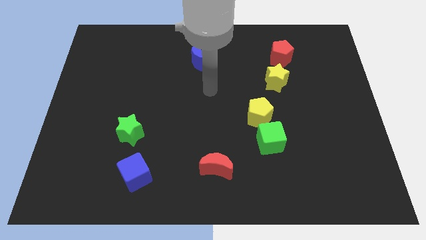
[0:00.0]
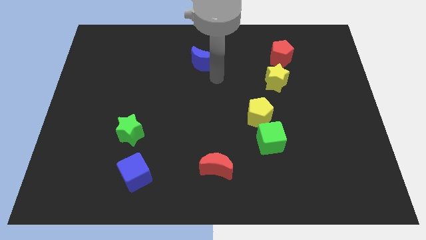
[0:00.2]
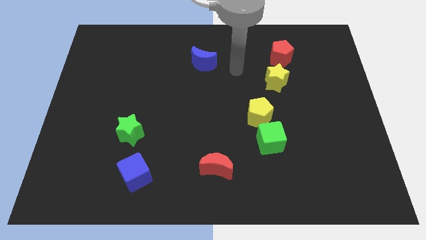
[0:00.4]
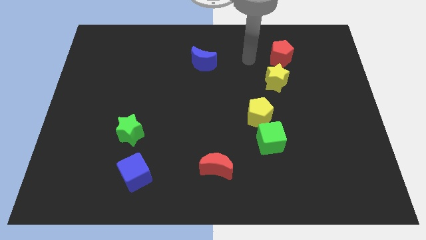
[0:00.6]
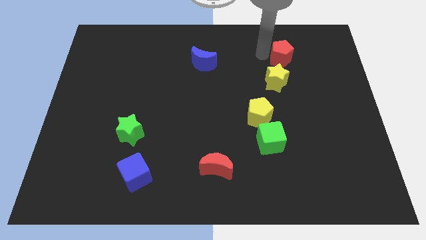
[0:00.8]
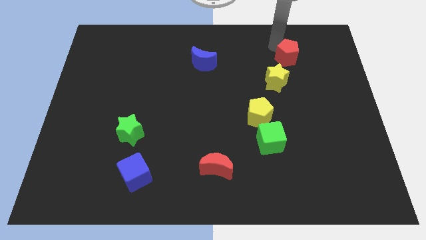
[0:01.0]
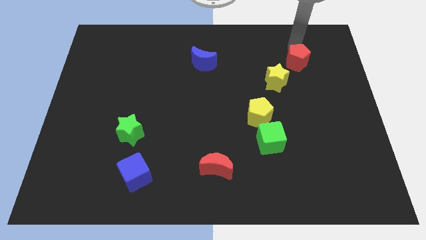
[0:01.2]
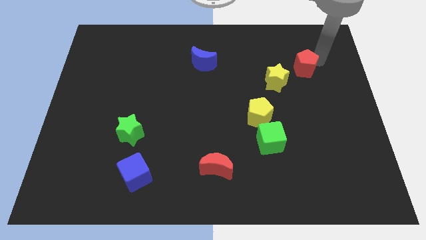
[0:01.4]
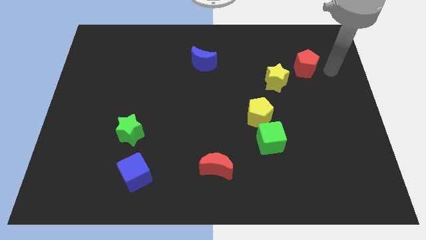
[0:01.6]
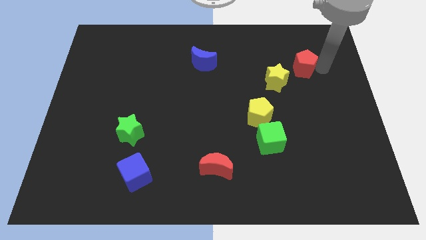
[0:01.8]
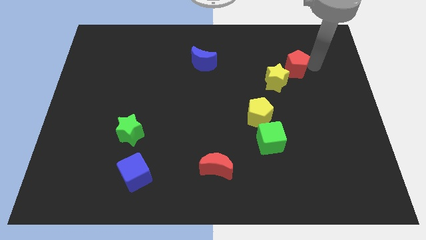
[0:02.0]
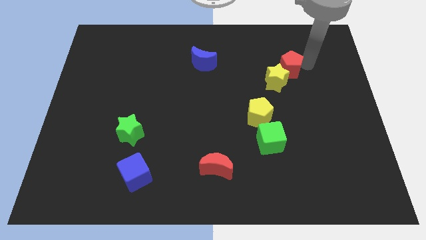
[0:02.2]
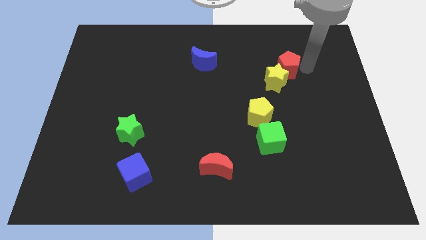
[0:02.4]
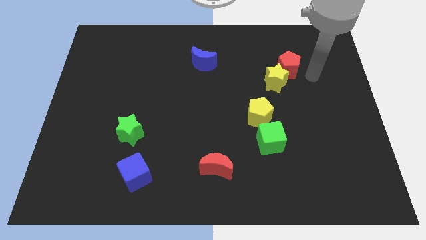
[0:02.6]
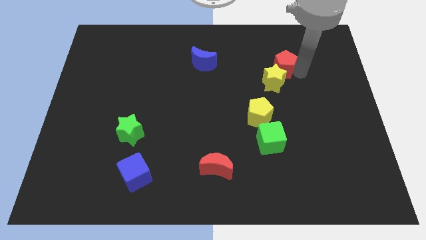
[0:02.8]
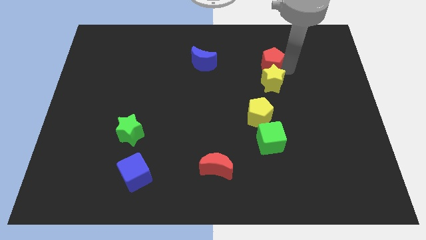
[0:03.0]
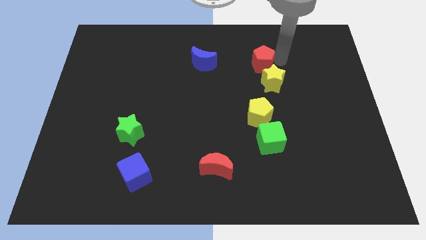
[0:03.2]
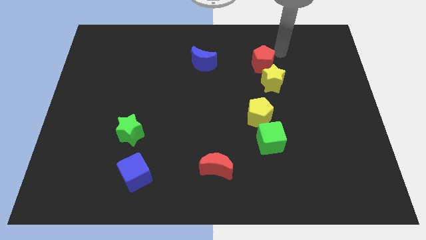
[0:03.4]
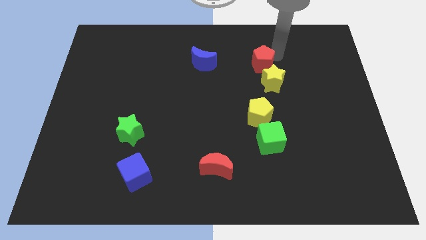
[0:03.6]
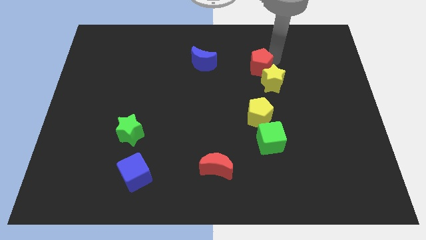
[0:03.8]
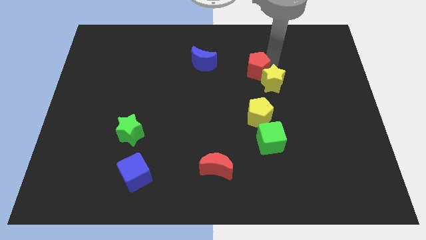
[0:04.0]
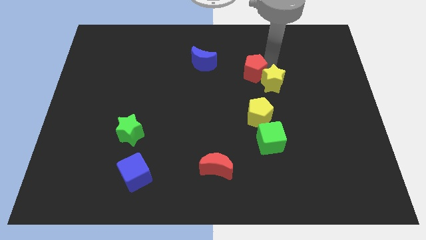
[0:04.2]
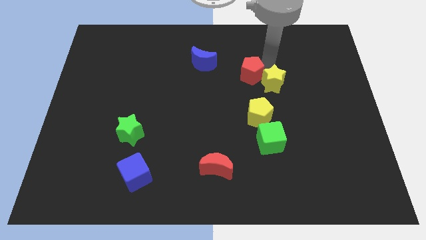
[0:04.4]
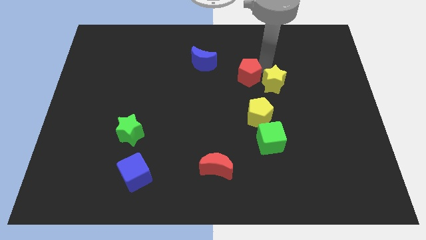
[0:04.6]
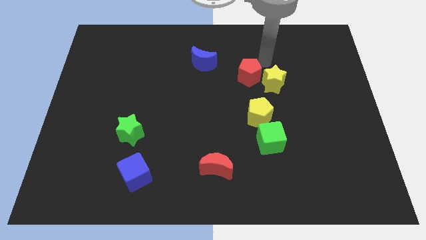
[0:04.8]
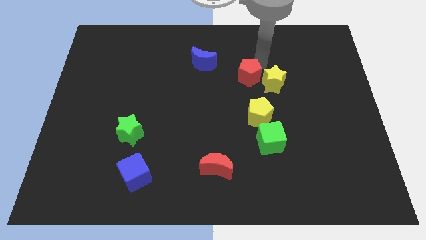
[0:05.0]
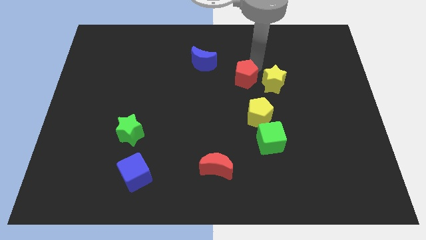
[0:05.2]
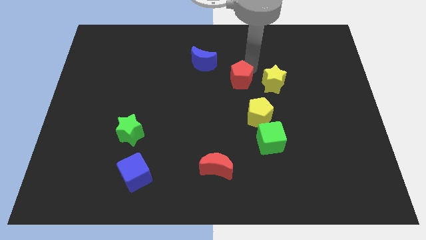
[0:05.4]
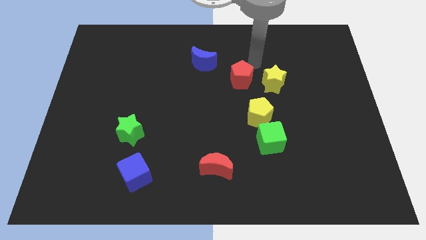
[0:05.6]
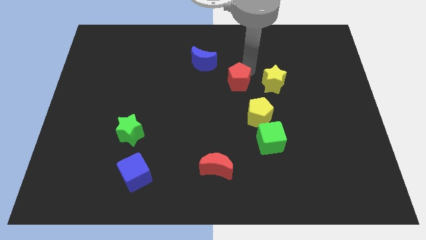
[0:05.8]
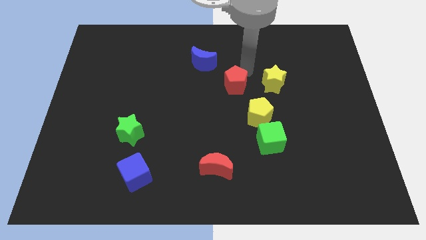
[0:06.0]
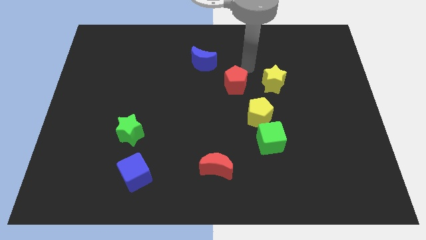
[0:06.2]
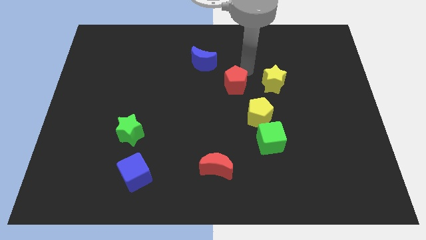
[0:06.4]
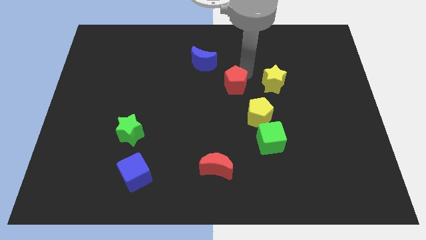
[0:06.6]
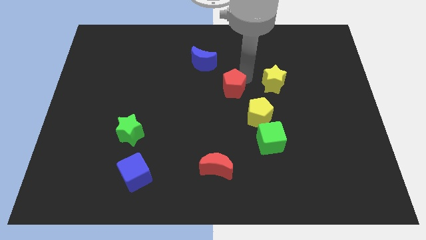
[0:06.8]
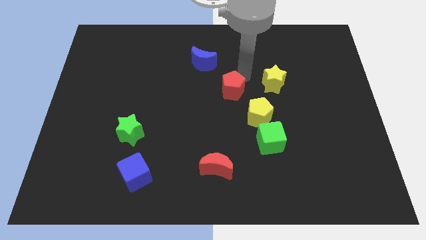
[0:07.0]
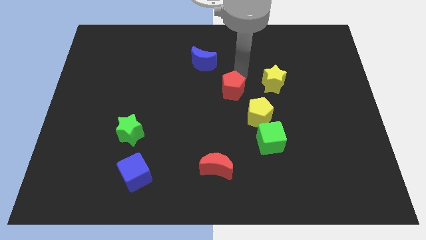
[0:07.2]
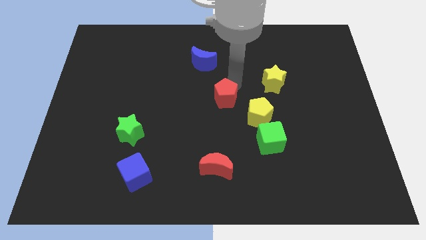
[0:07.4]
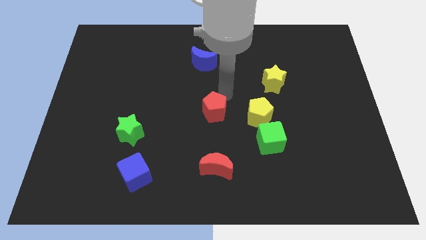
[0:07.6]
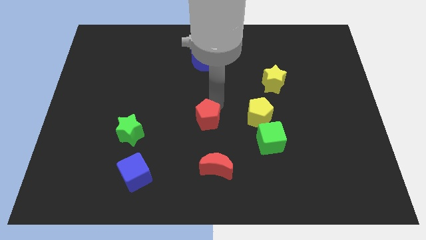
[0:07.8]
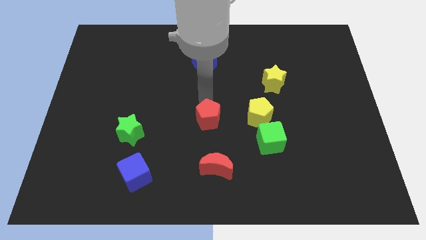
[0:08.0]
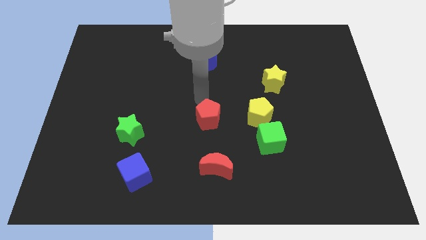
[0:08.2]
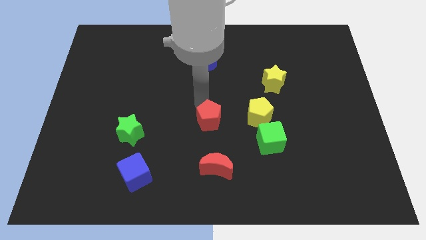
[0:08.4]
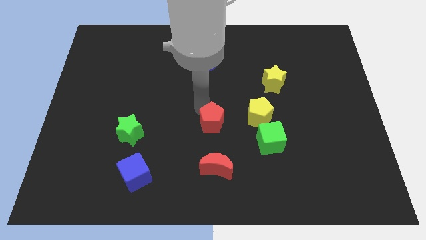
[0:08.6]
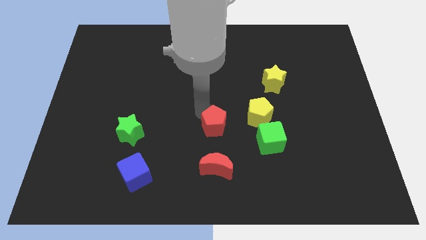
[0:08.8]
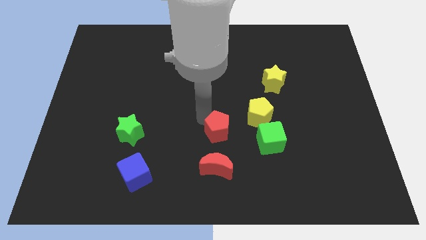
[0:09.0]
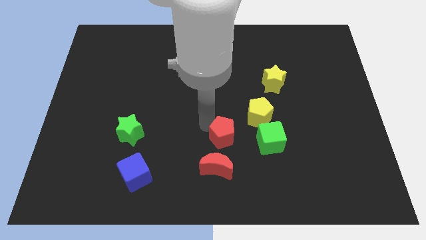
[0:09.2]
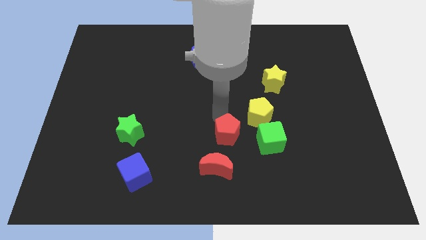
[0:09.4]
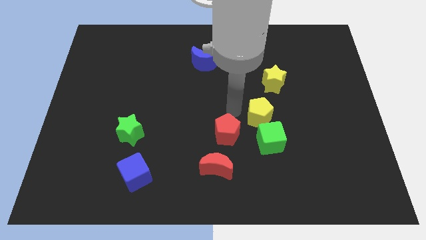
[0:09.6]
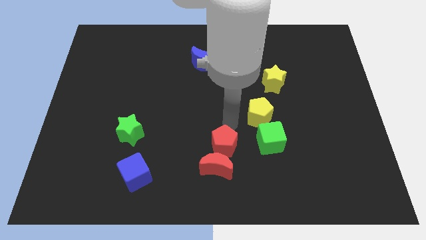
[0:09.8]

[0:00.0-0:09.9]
put the red pentagon close to the red moon

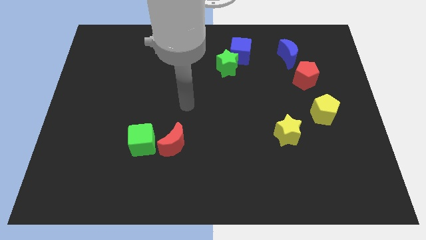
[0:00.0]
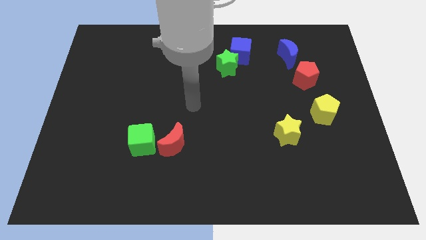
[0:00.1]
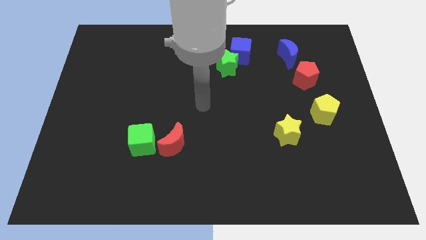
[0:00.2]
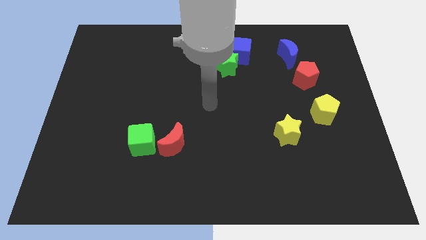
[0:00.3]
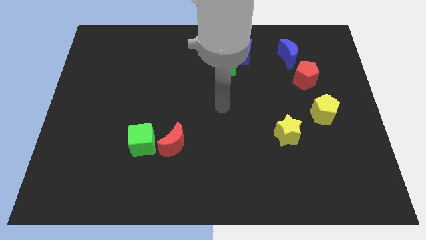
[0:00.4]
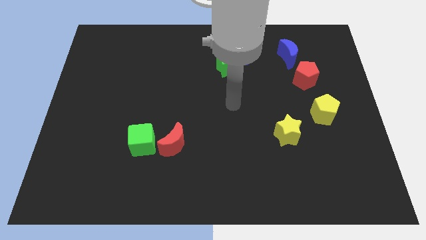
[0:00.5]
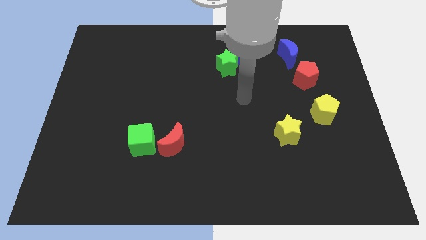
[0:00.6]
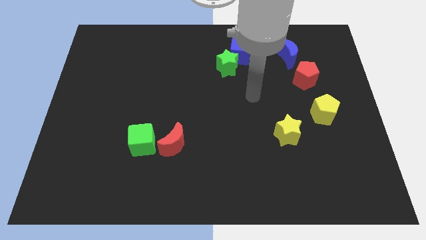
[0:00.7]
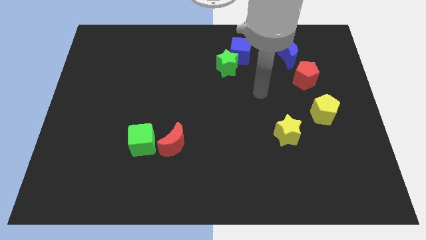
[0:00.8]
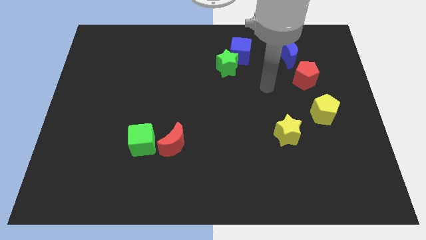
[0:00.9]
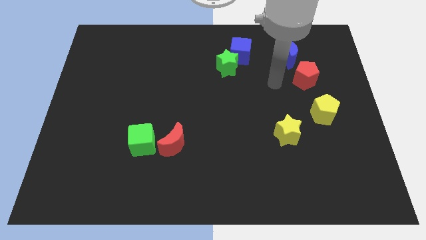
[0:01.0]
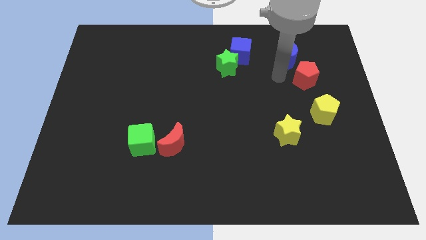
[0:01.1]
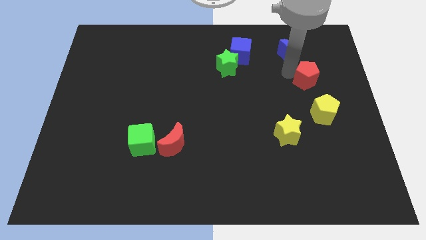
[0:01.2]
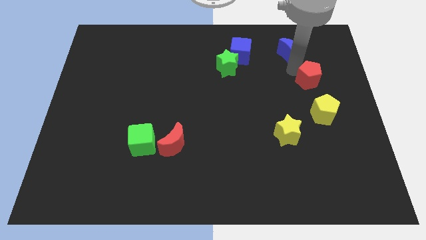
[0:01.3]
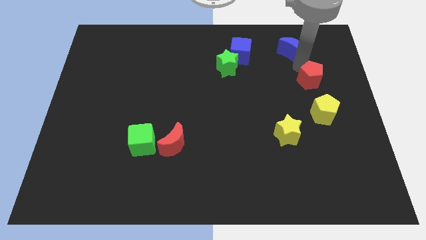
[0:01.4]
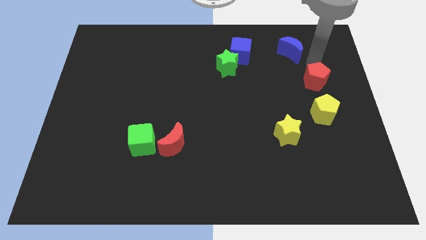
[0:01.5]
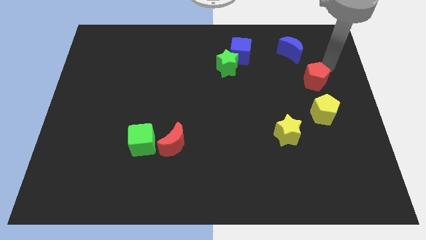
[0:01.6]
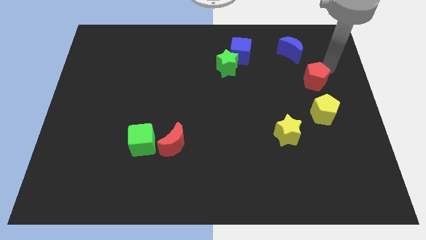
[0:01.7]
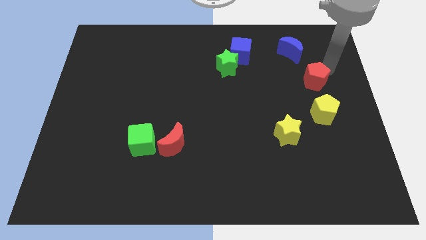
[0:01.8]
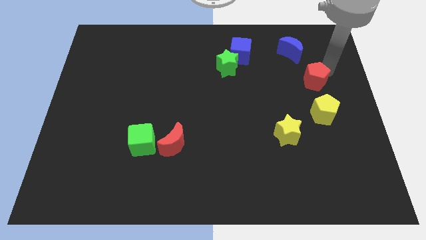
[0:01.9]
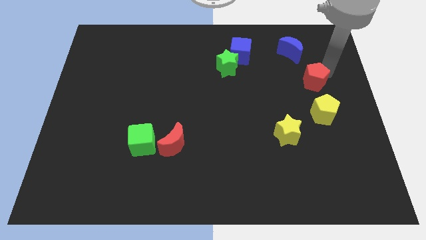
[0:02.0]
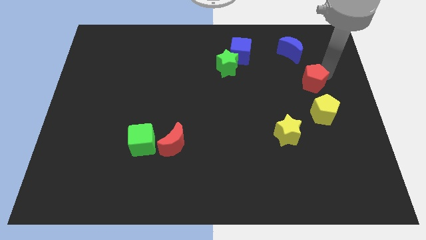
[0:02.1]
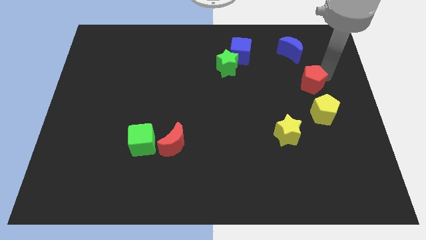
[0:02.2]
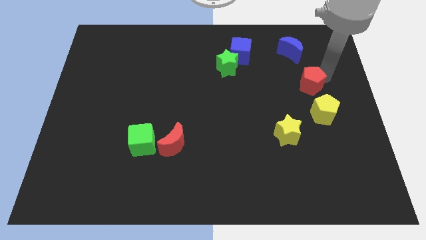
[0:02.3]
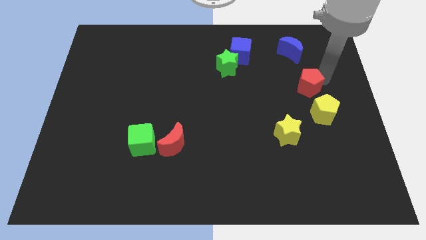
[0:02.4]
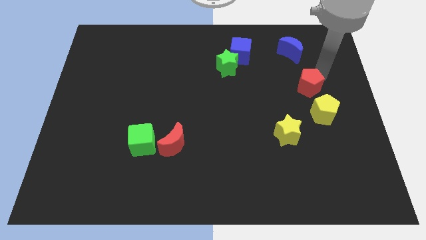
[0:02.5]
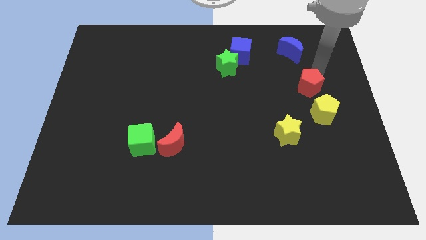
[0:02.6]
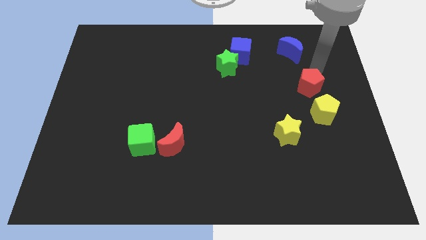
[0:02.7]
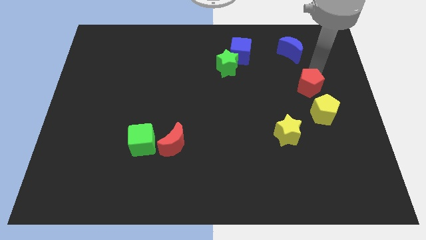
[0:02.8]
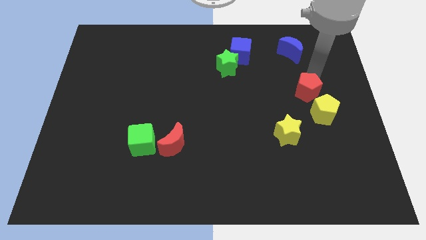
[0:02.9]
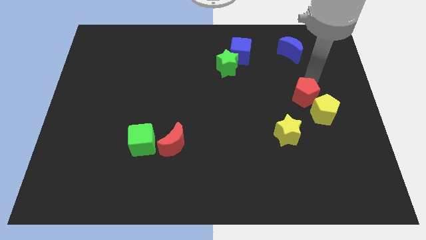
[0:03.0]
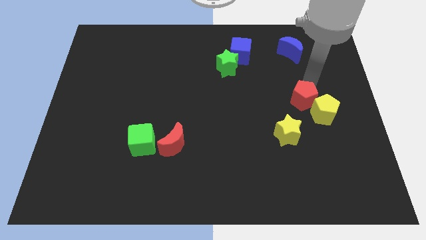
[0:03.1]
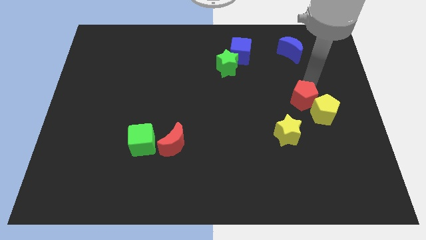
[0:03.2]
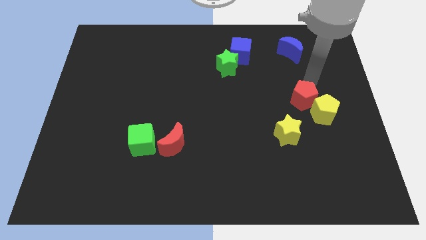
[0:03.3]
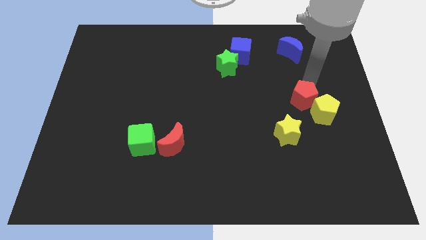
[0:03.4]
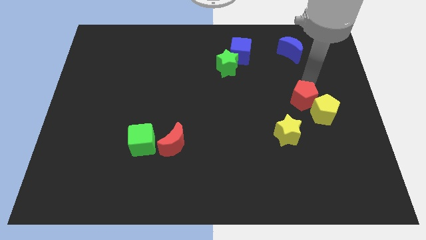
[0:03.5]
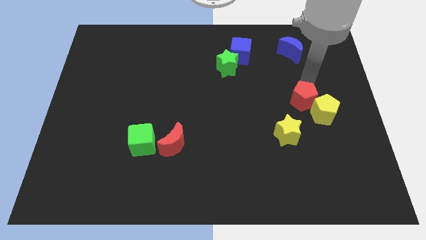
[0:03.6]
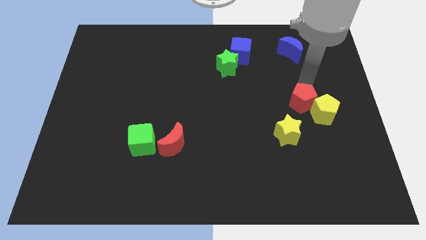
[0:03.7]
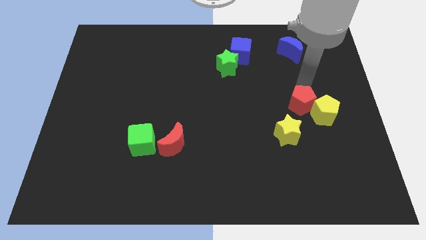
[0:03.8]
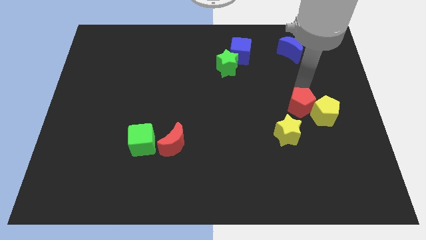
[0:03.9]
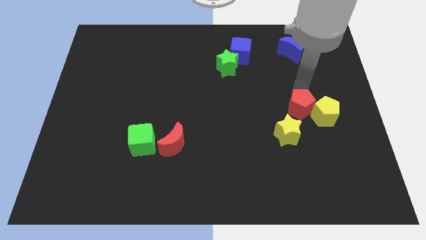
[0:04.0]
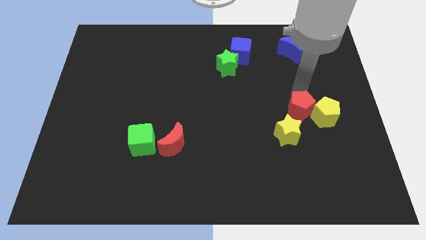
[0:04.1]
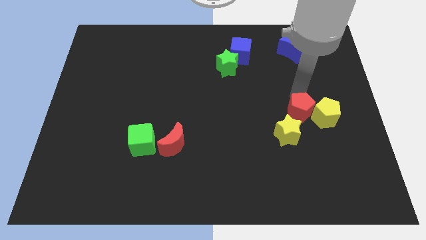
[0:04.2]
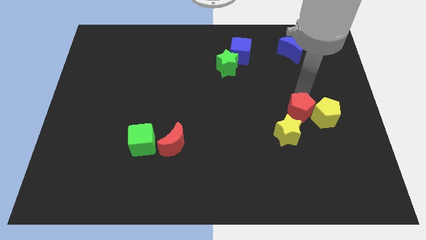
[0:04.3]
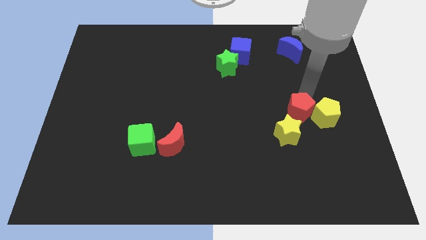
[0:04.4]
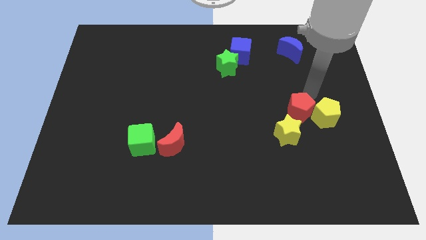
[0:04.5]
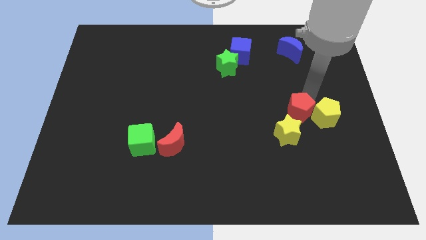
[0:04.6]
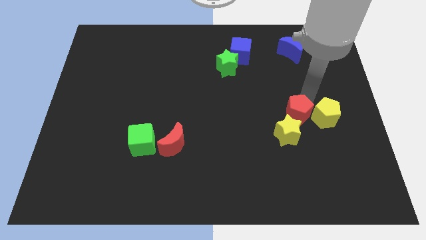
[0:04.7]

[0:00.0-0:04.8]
move the red pentagon to the yellow star
